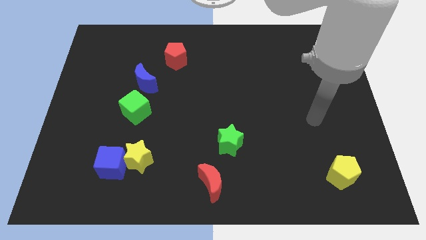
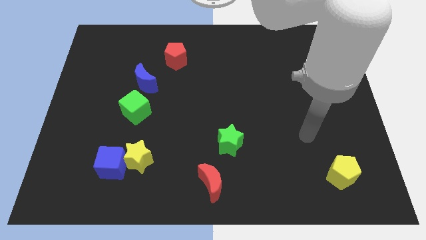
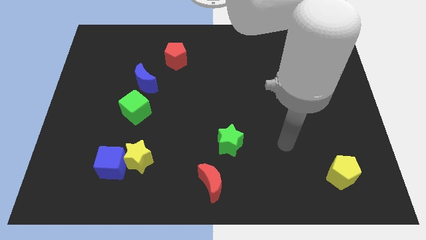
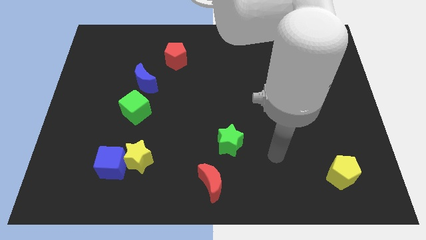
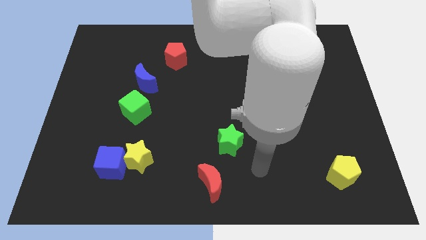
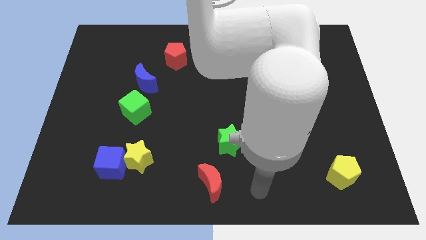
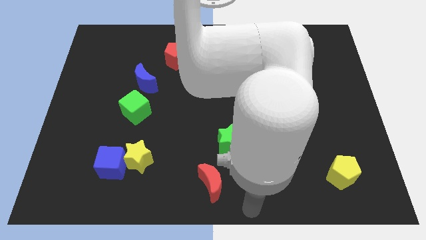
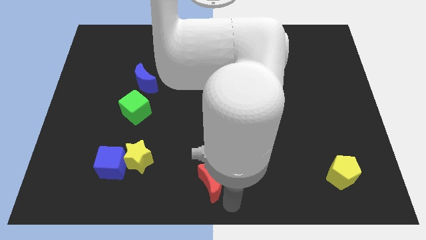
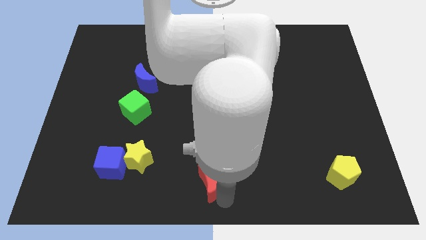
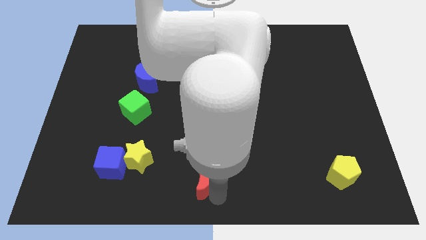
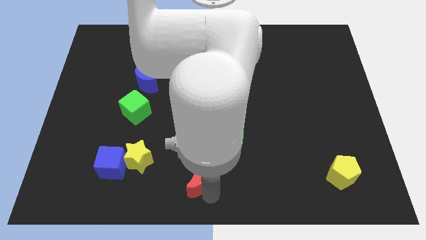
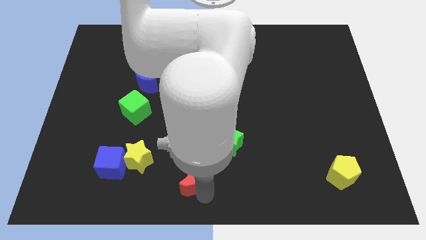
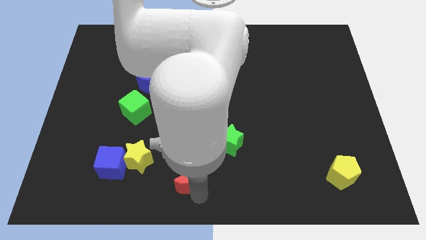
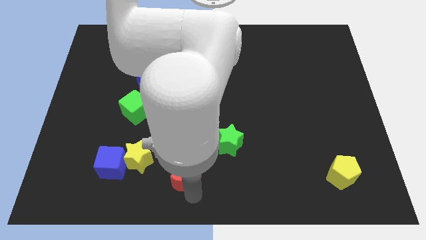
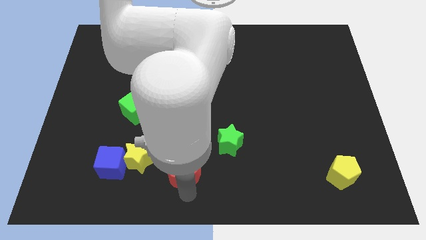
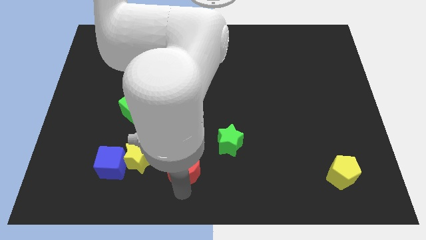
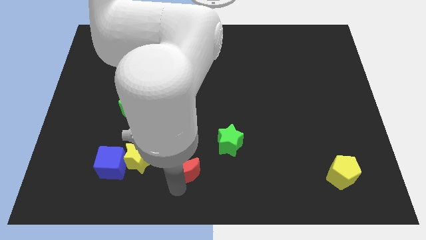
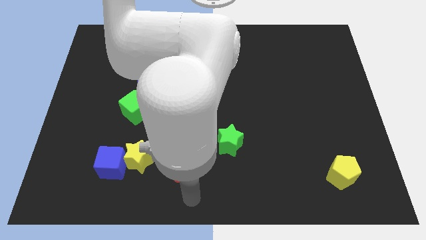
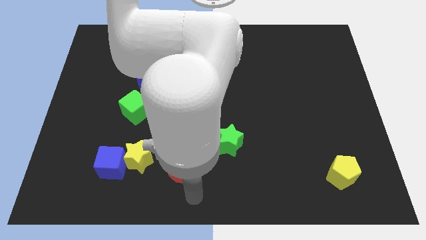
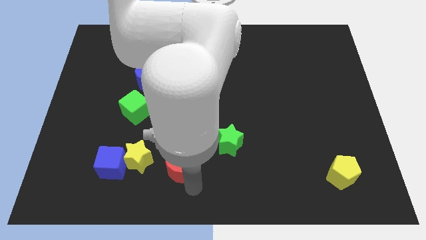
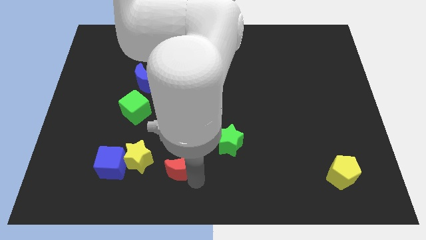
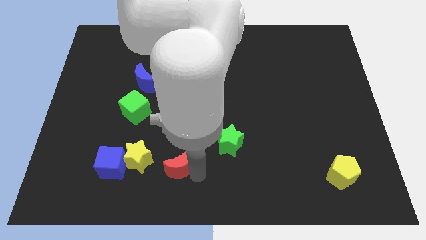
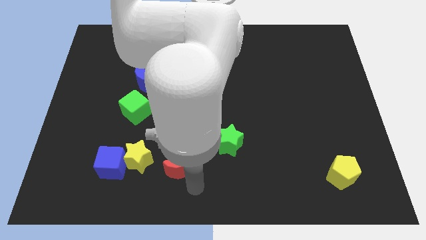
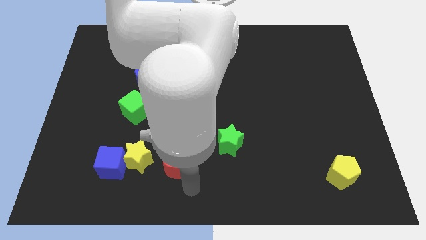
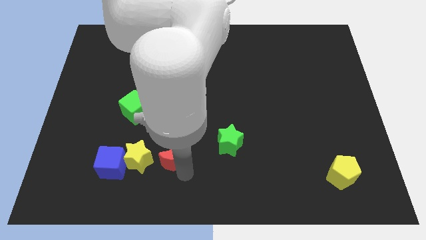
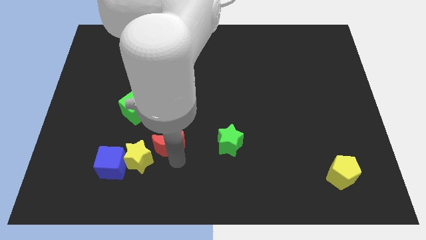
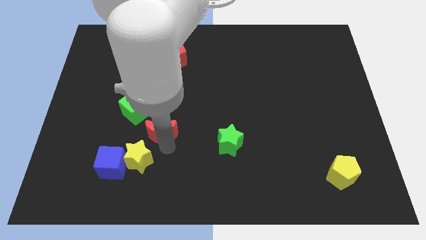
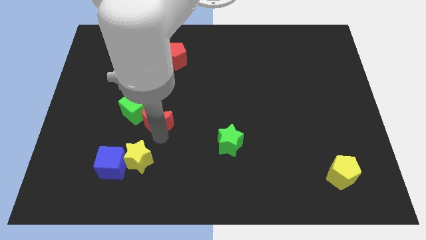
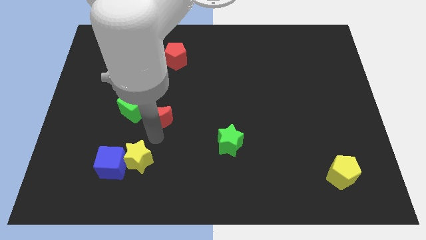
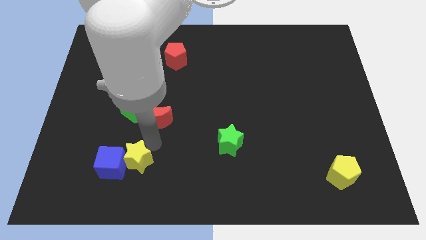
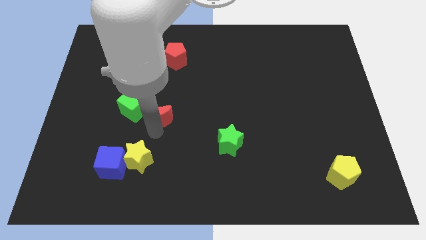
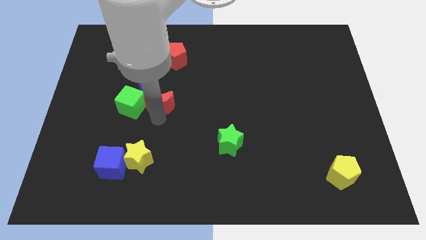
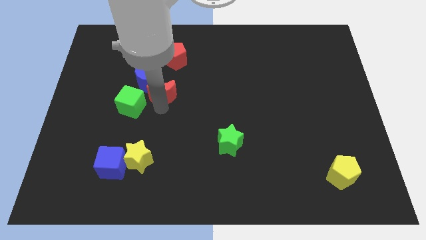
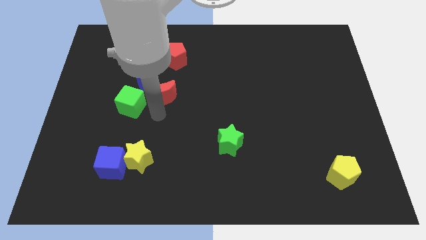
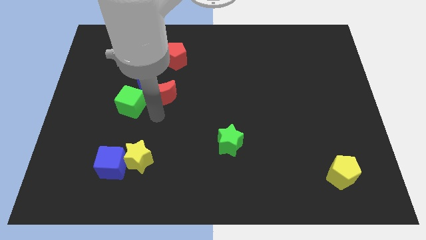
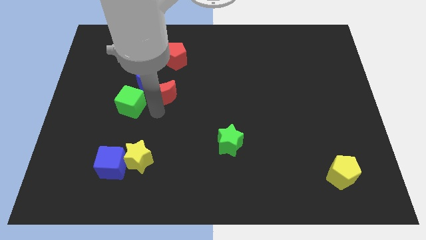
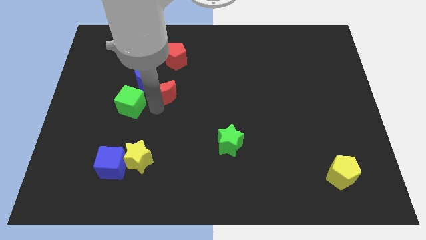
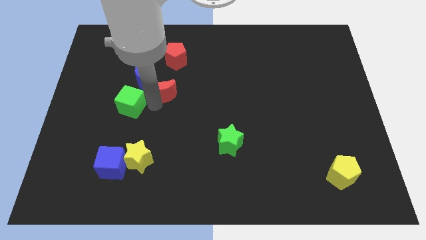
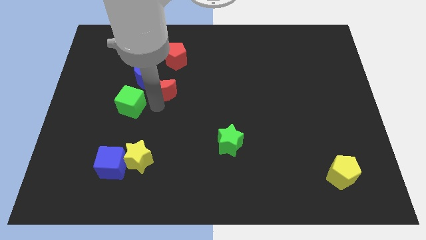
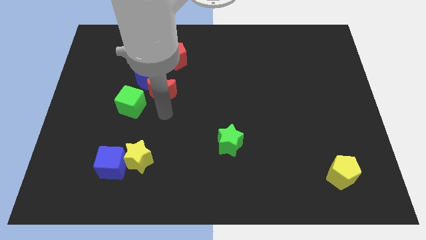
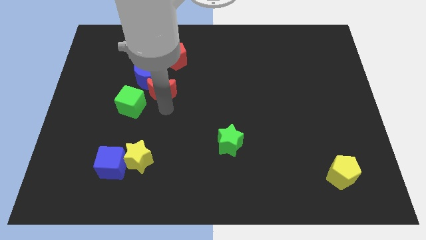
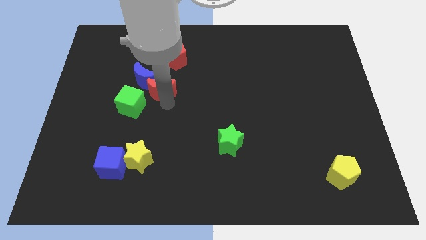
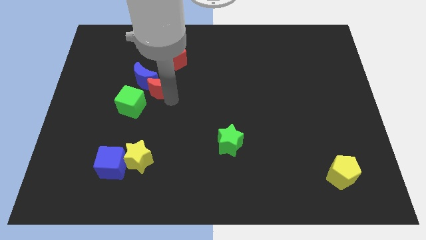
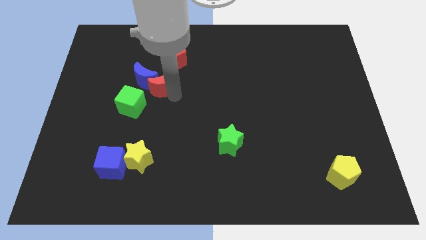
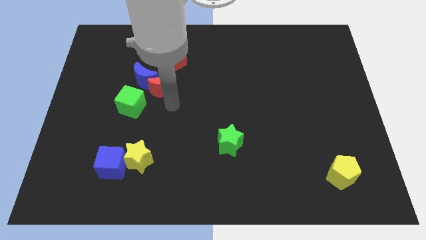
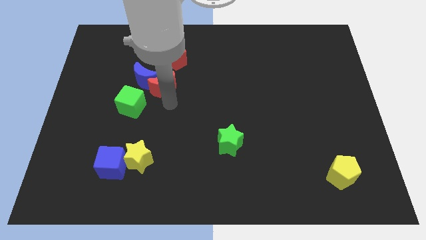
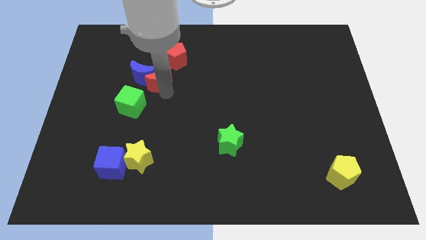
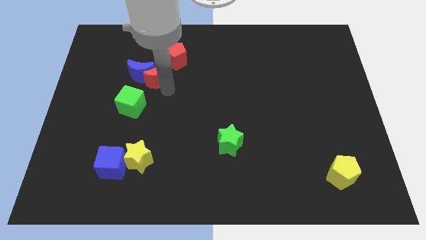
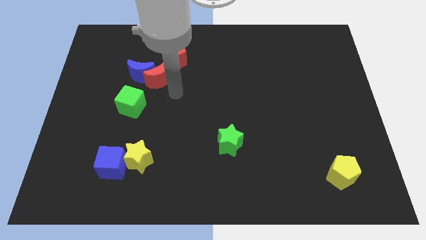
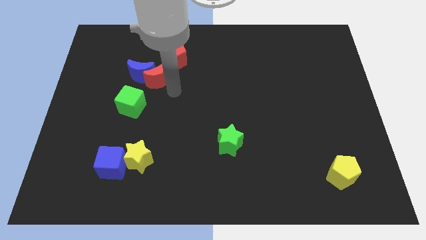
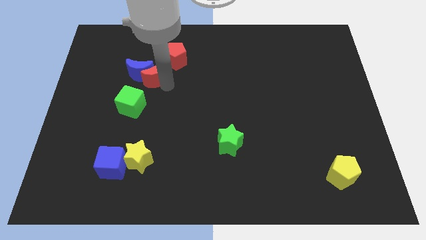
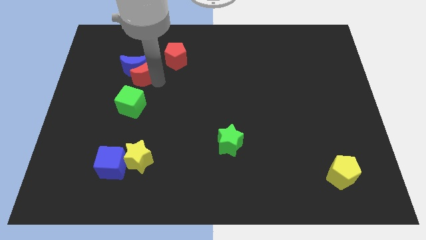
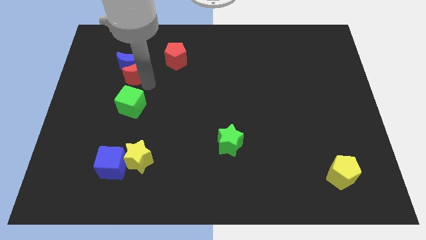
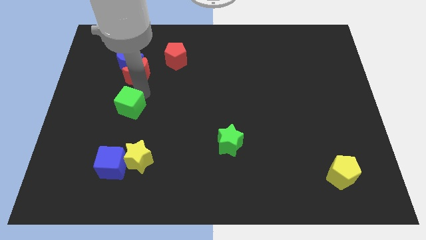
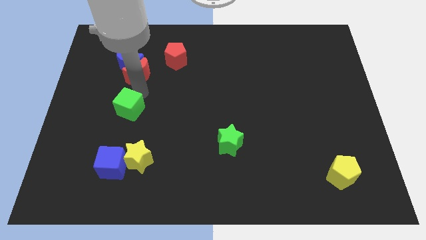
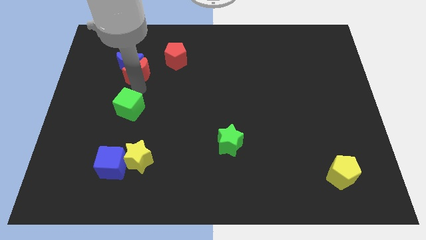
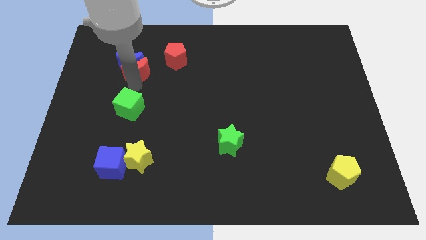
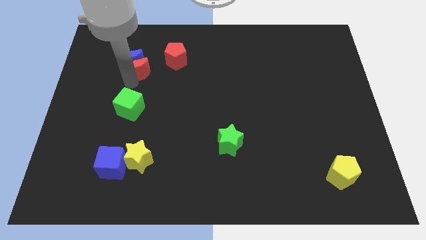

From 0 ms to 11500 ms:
push the red moon to the left side of the red pentagon

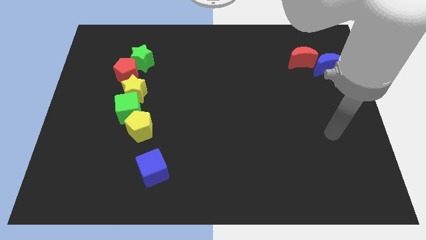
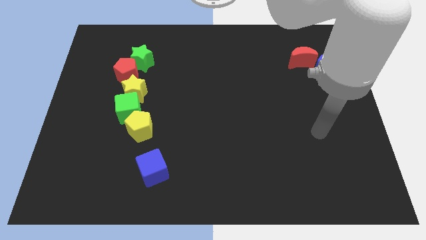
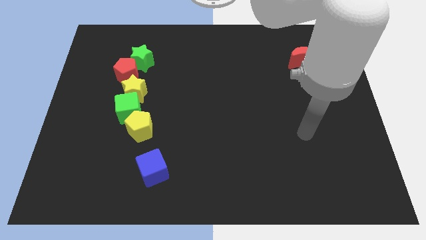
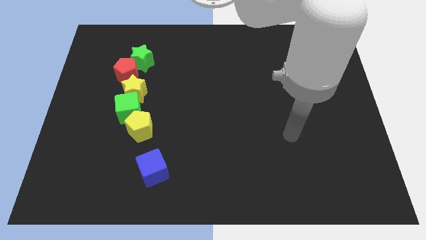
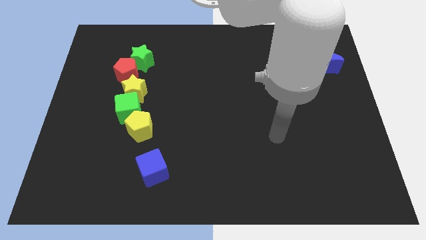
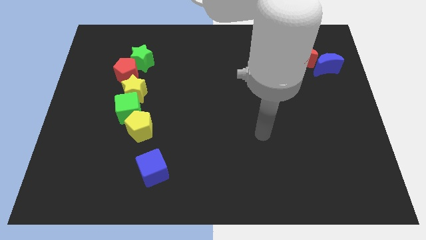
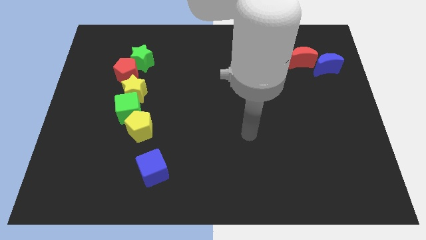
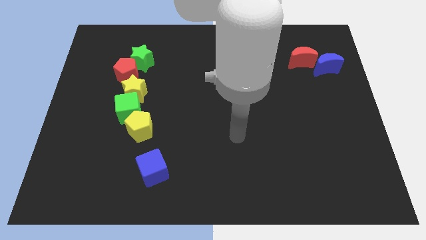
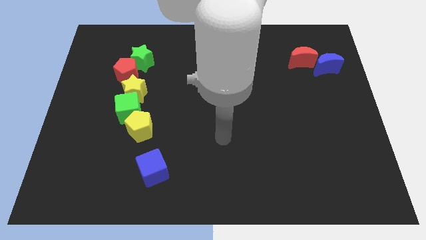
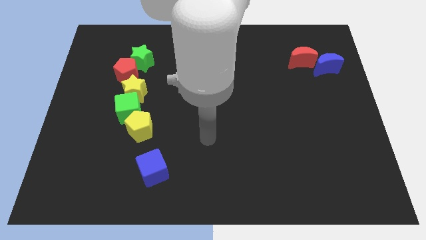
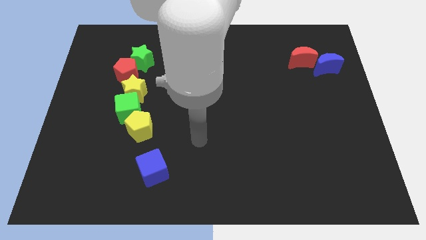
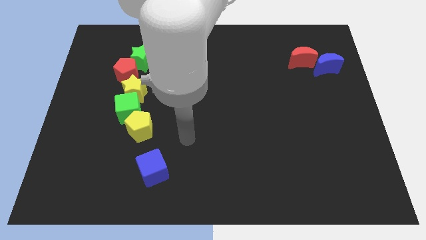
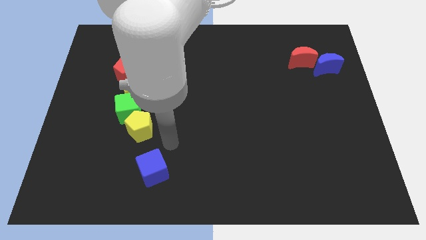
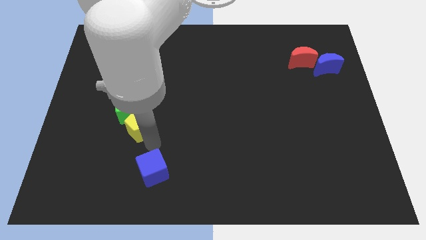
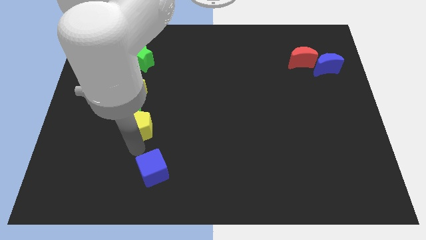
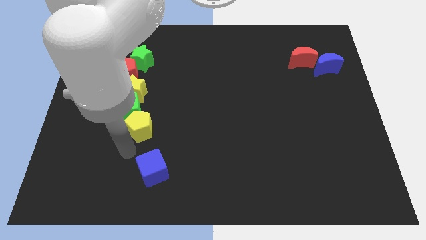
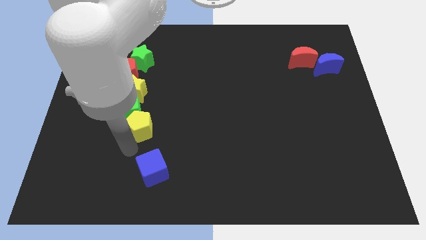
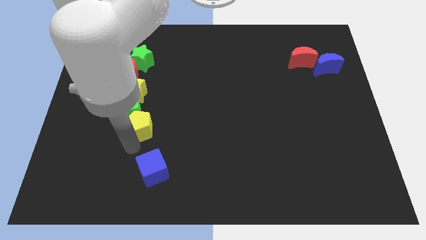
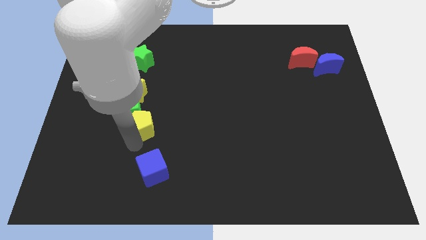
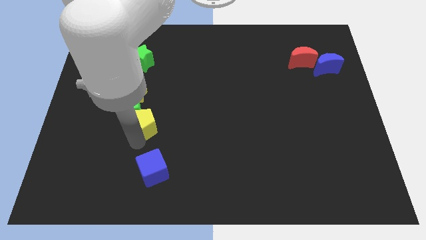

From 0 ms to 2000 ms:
slide the yellow pentagon to the bottom right of the yellow star

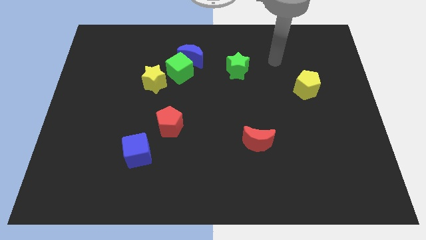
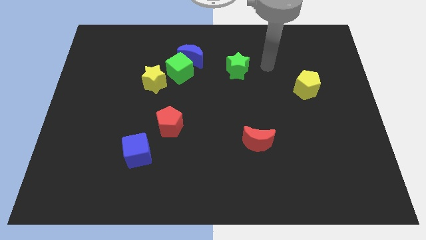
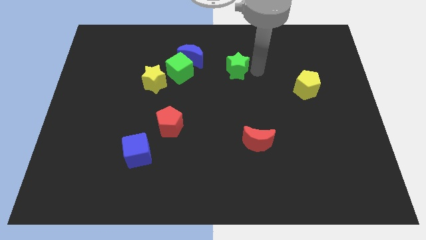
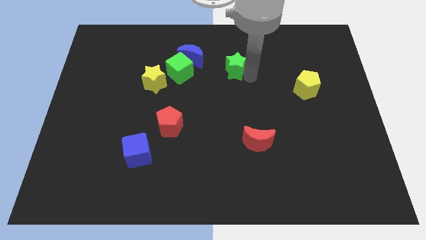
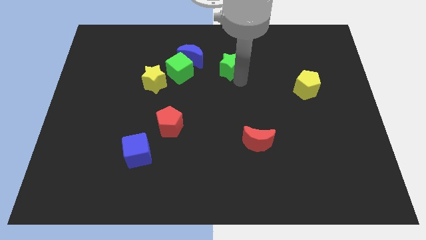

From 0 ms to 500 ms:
put the blue moon to the top left of the green star
